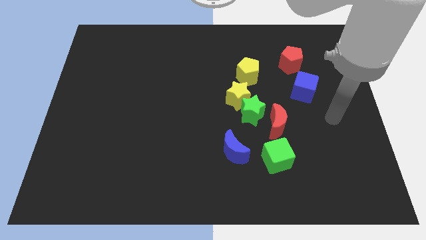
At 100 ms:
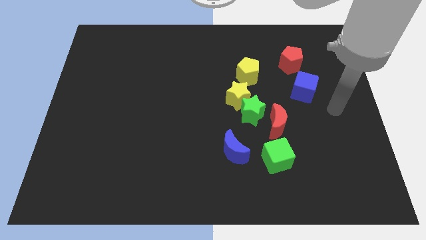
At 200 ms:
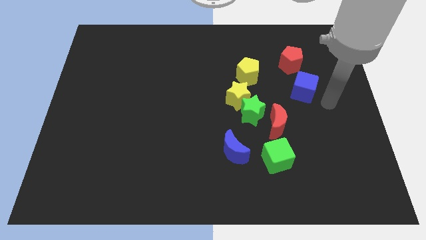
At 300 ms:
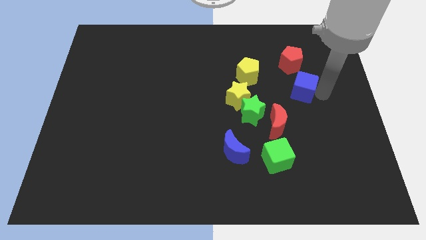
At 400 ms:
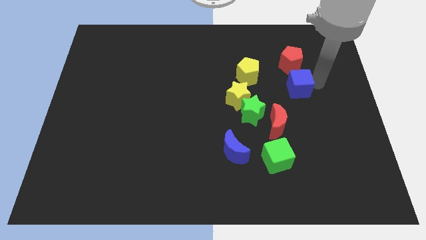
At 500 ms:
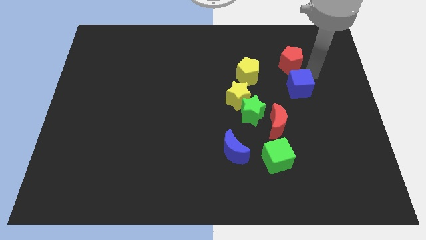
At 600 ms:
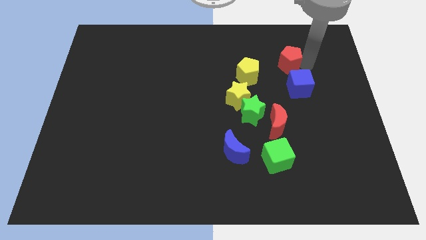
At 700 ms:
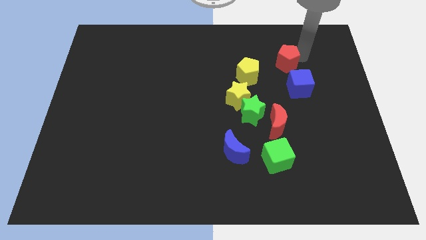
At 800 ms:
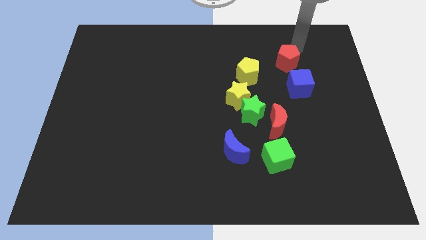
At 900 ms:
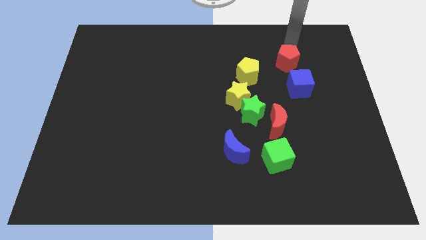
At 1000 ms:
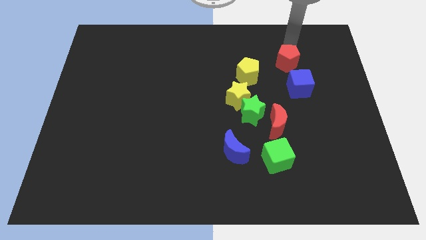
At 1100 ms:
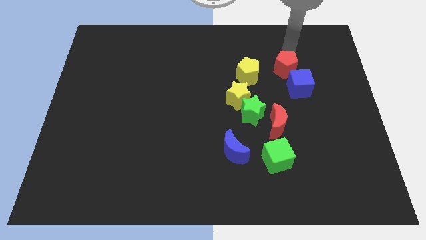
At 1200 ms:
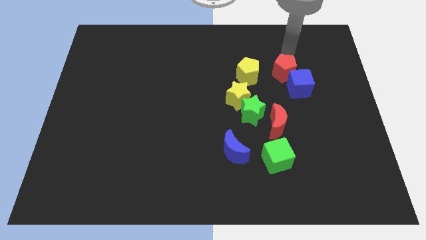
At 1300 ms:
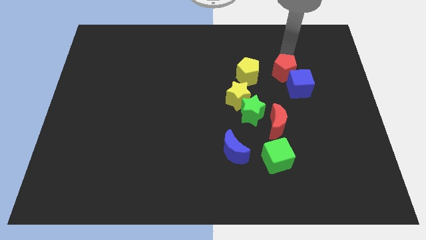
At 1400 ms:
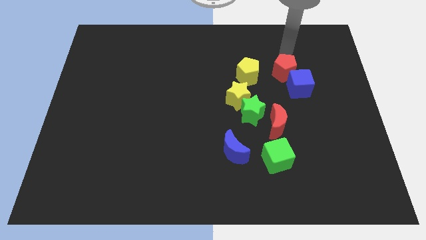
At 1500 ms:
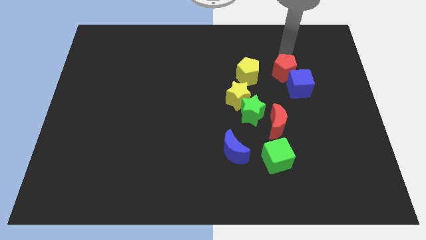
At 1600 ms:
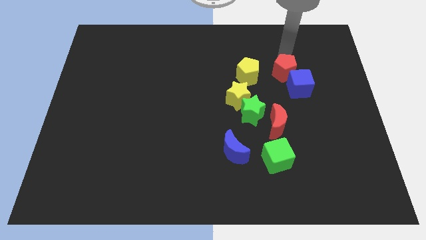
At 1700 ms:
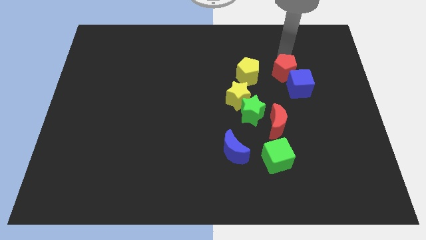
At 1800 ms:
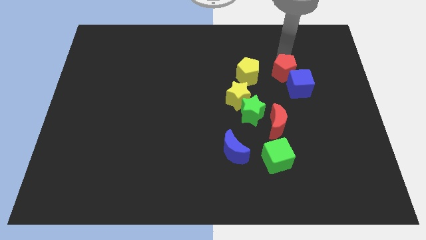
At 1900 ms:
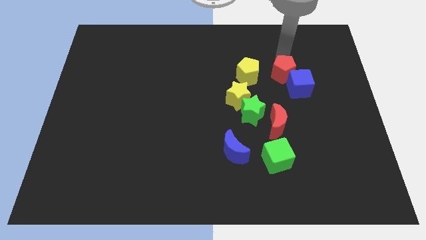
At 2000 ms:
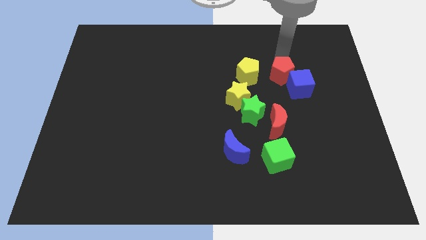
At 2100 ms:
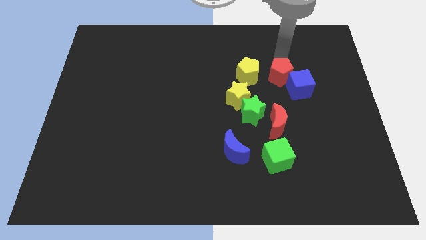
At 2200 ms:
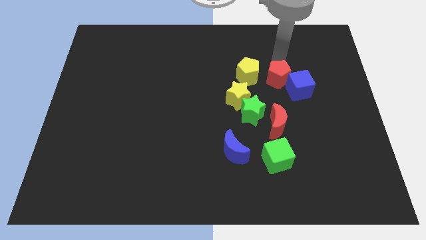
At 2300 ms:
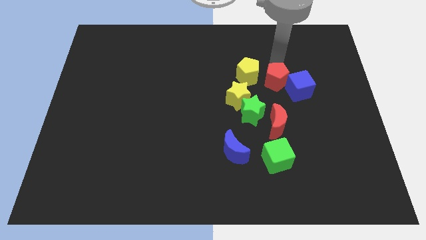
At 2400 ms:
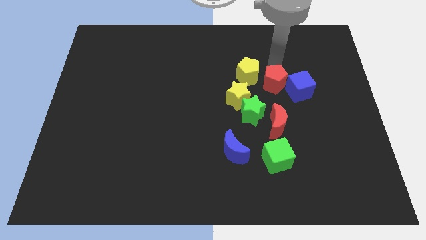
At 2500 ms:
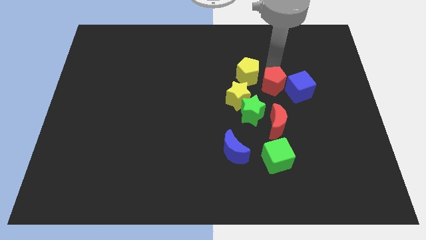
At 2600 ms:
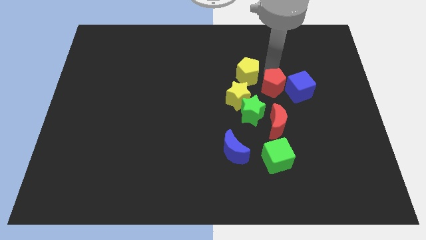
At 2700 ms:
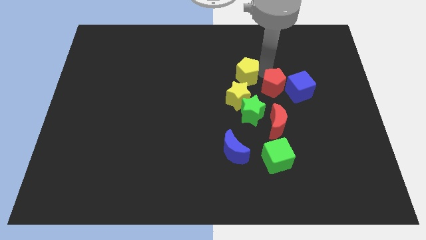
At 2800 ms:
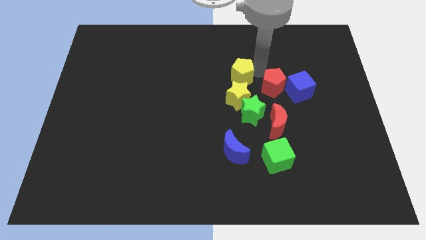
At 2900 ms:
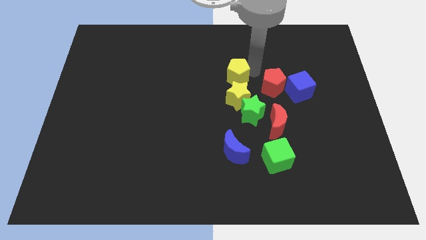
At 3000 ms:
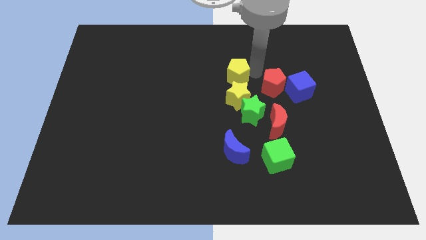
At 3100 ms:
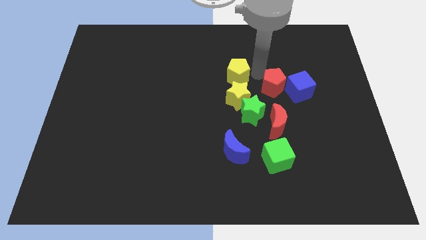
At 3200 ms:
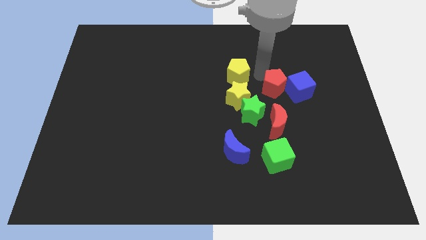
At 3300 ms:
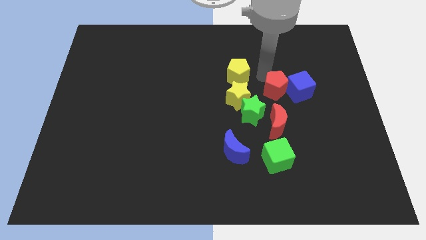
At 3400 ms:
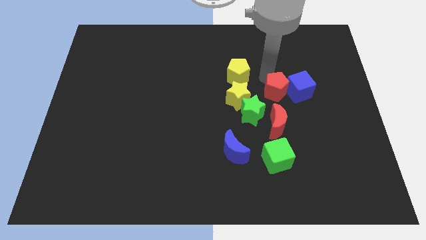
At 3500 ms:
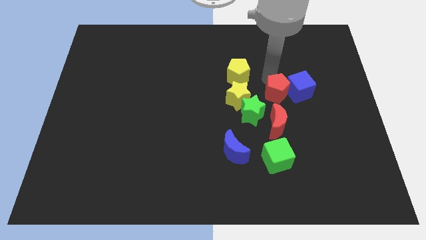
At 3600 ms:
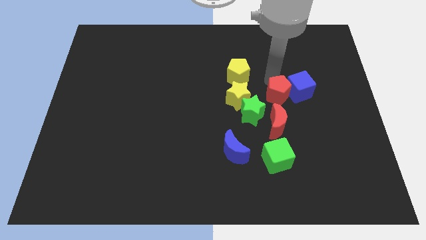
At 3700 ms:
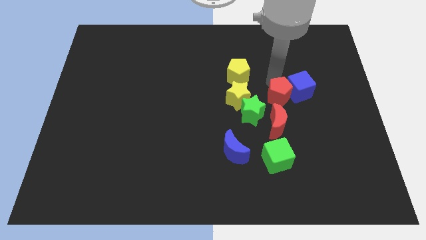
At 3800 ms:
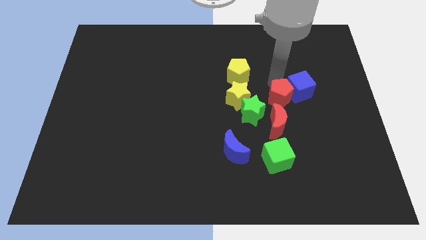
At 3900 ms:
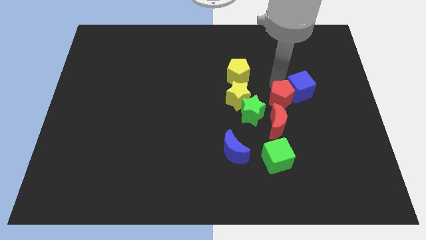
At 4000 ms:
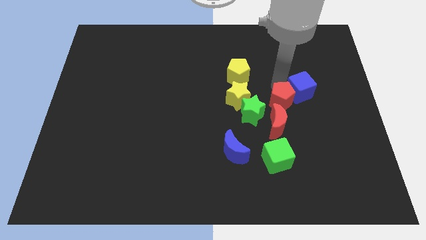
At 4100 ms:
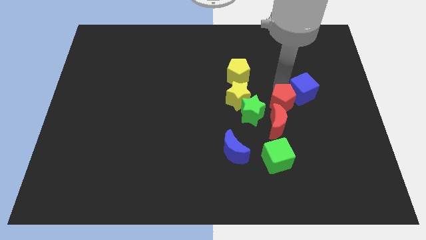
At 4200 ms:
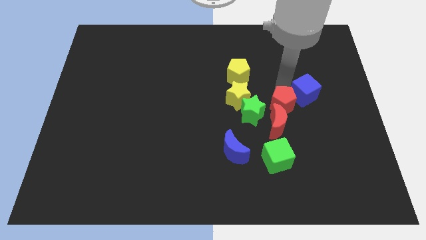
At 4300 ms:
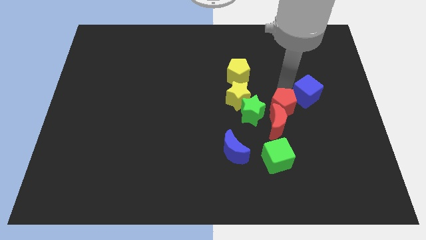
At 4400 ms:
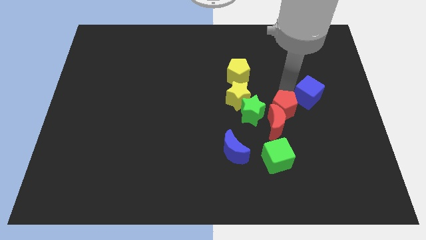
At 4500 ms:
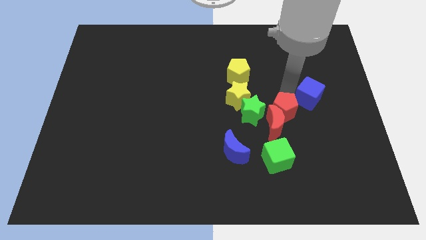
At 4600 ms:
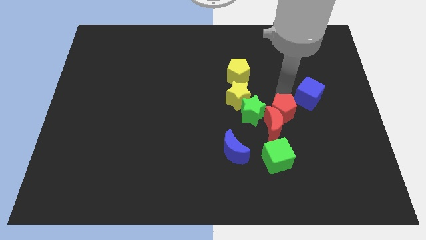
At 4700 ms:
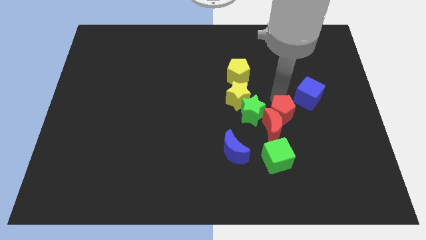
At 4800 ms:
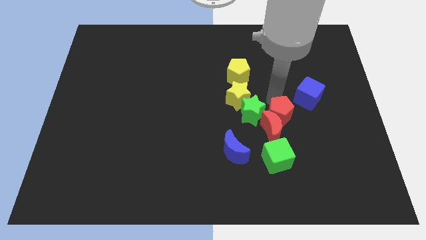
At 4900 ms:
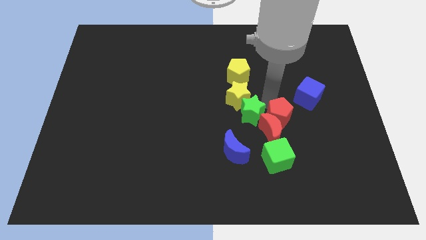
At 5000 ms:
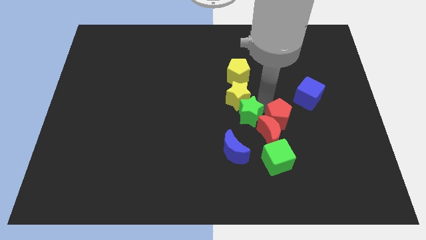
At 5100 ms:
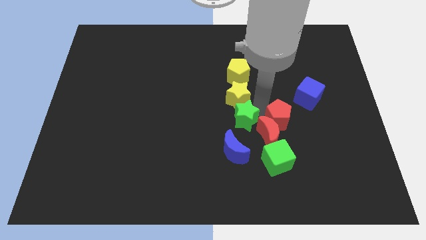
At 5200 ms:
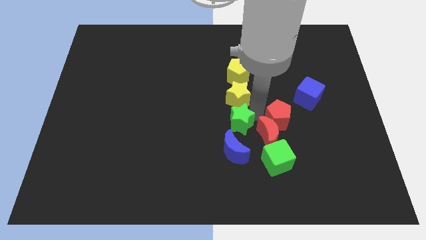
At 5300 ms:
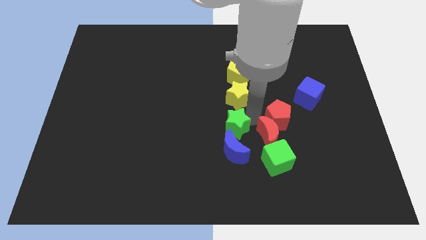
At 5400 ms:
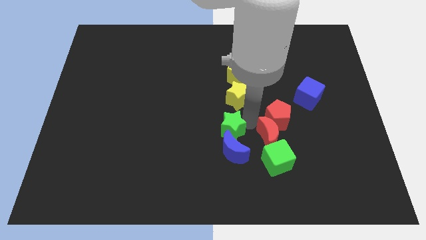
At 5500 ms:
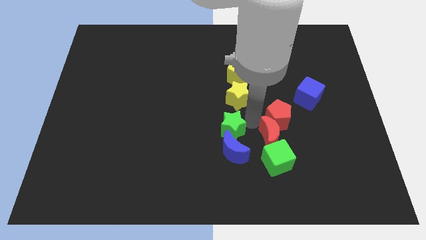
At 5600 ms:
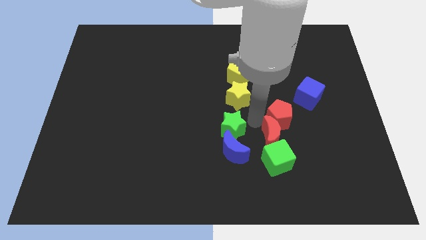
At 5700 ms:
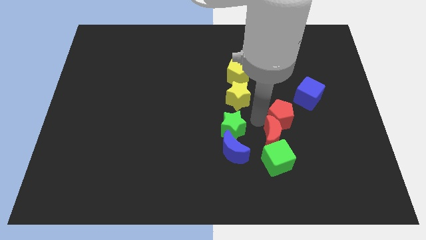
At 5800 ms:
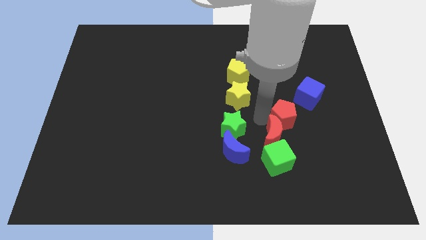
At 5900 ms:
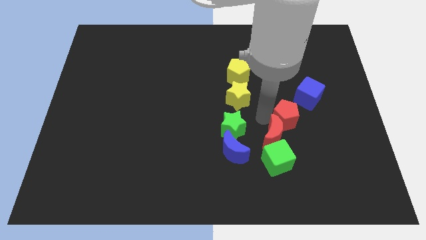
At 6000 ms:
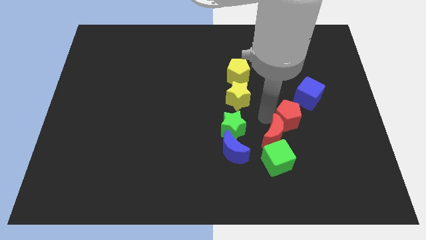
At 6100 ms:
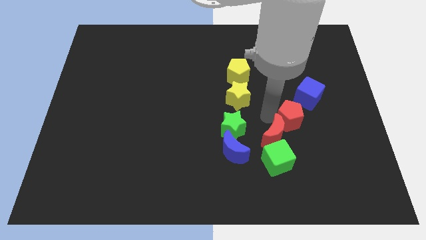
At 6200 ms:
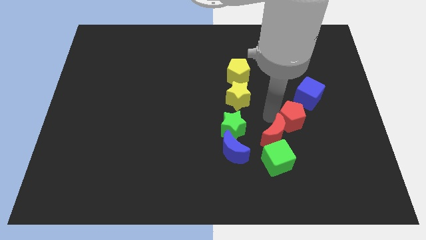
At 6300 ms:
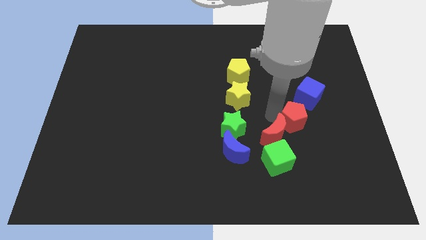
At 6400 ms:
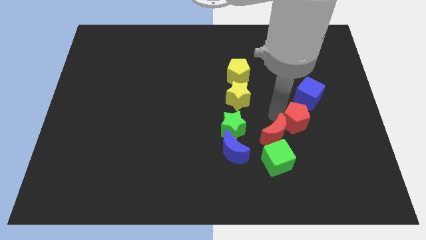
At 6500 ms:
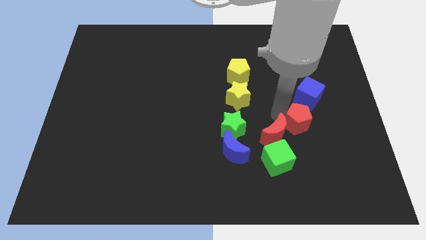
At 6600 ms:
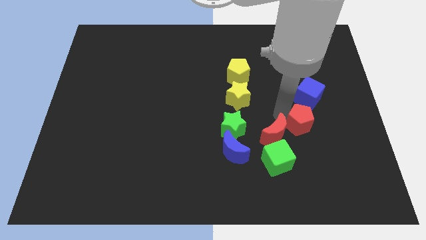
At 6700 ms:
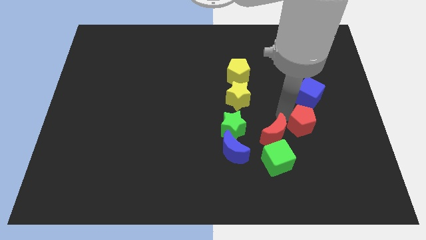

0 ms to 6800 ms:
slide the red pentagon down

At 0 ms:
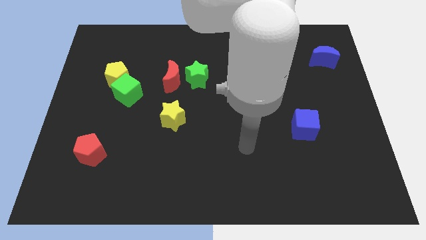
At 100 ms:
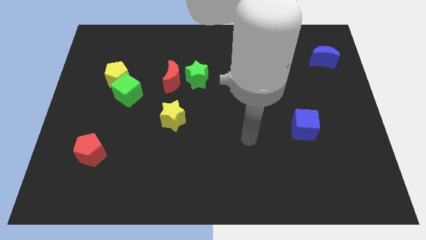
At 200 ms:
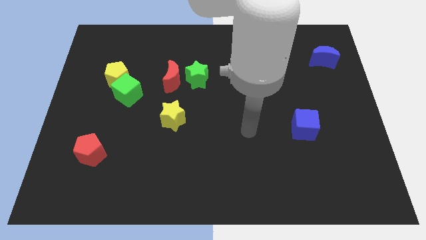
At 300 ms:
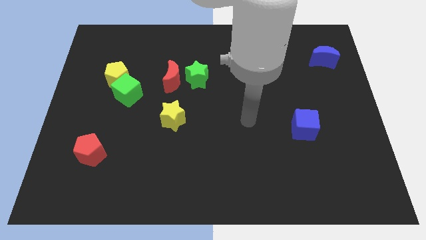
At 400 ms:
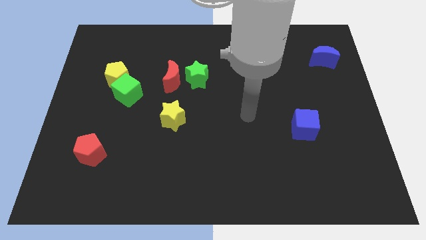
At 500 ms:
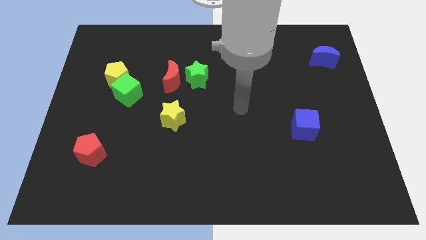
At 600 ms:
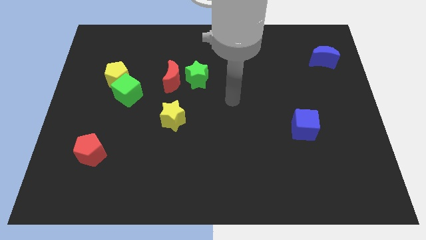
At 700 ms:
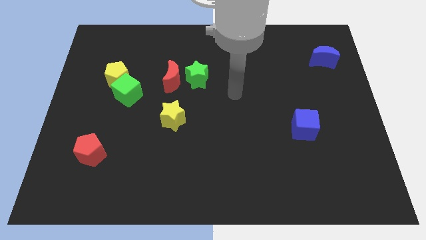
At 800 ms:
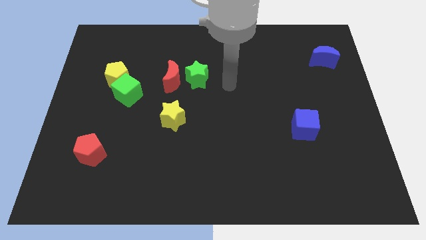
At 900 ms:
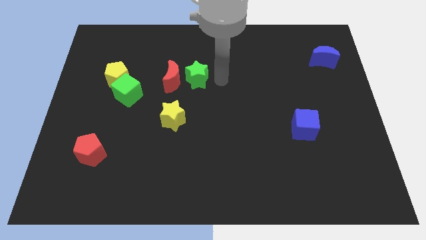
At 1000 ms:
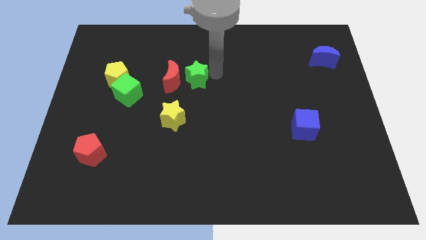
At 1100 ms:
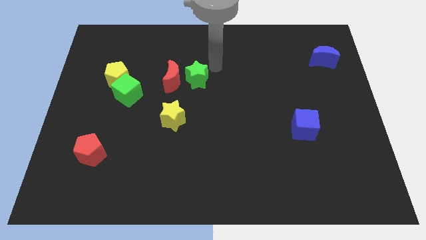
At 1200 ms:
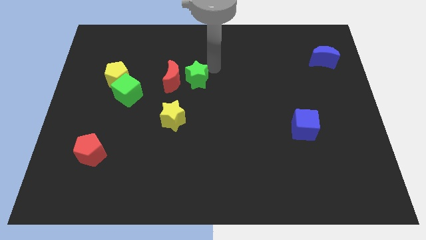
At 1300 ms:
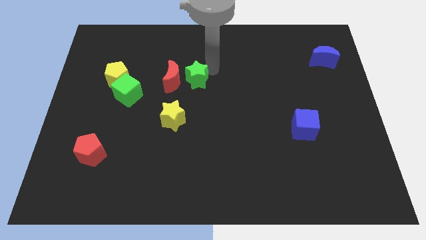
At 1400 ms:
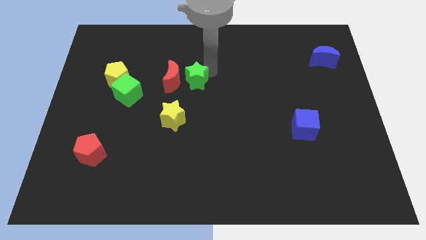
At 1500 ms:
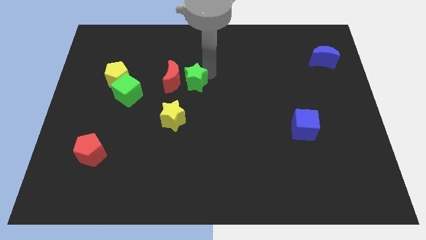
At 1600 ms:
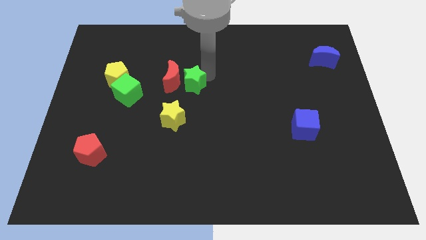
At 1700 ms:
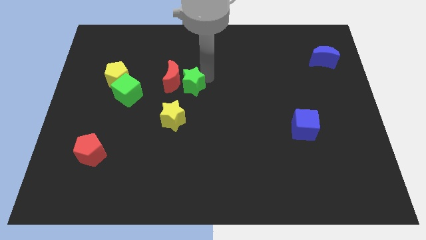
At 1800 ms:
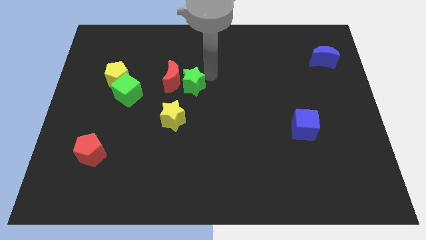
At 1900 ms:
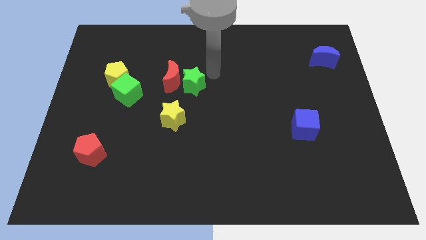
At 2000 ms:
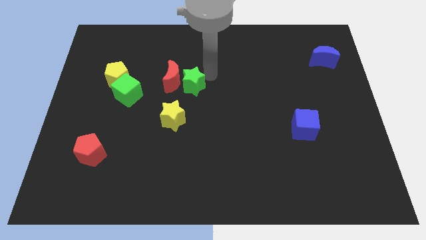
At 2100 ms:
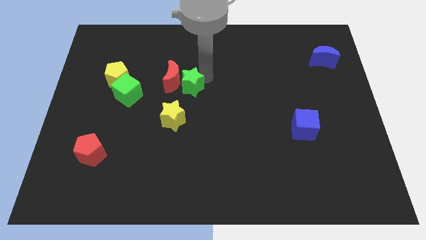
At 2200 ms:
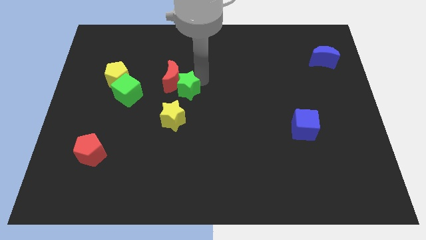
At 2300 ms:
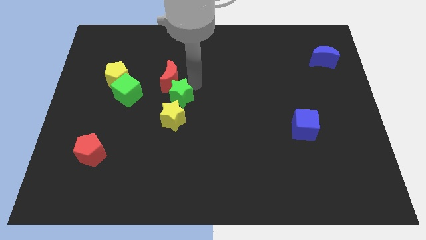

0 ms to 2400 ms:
slightly push the green star down and to the left
